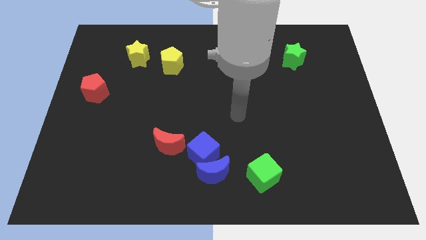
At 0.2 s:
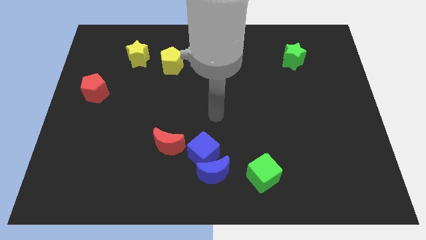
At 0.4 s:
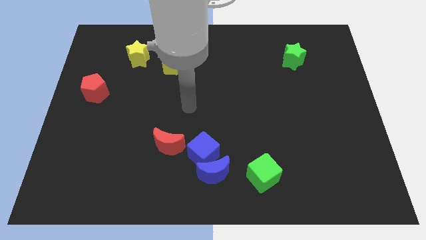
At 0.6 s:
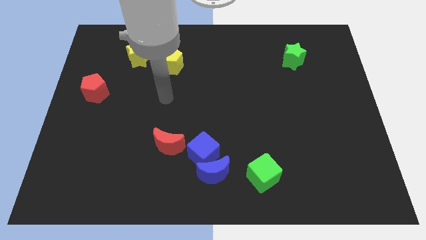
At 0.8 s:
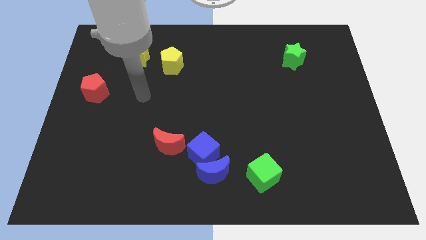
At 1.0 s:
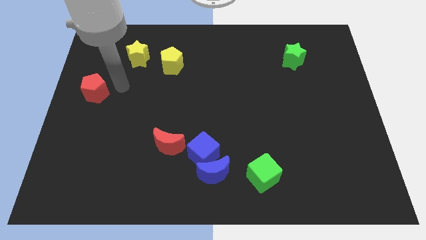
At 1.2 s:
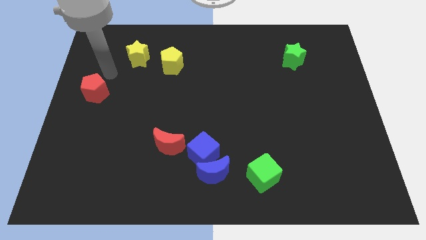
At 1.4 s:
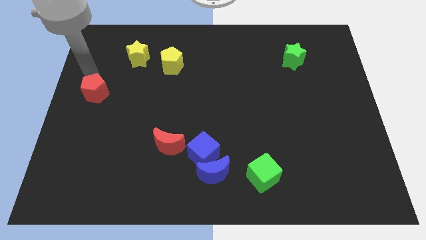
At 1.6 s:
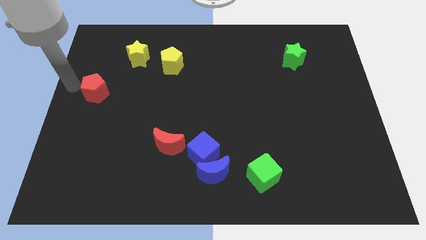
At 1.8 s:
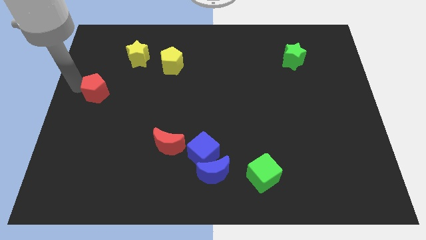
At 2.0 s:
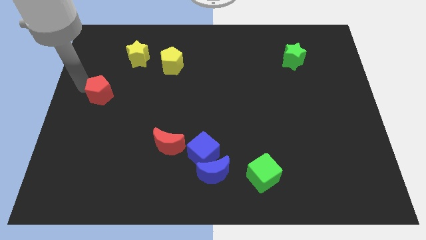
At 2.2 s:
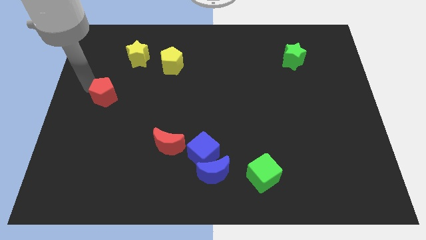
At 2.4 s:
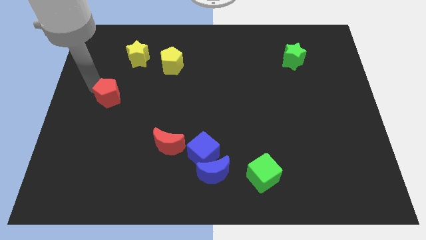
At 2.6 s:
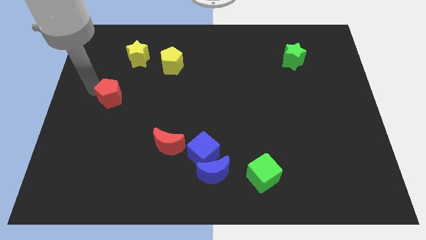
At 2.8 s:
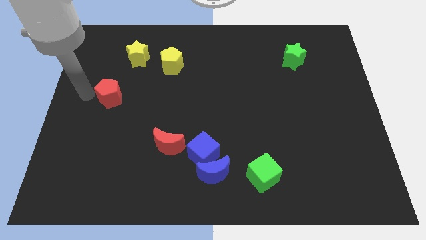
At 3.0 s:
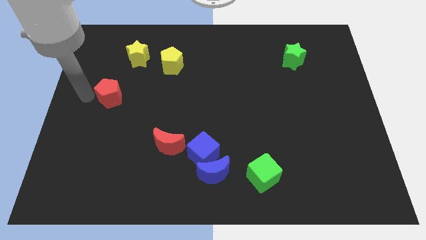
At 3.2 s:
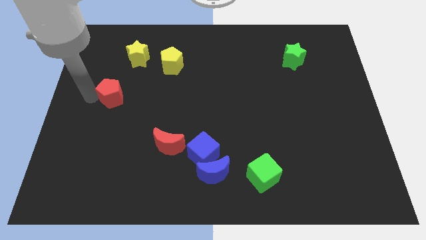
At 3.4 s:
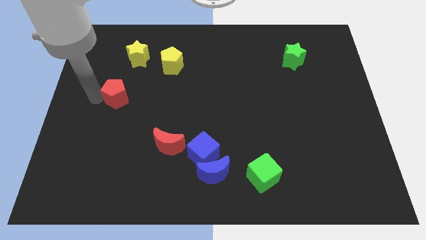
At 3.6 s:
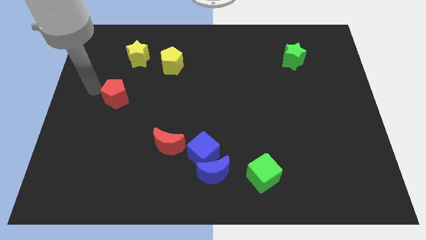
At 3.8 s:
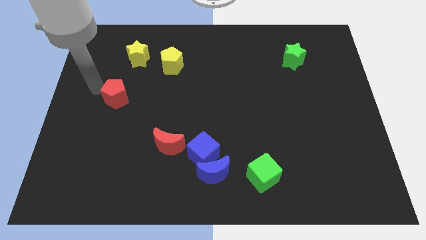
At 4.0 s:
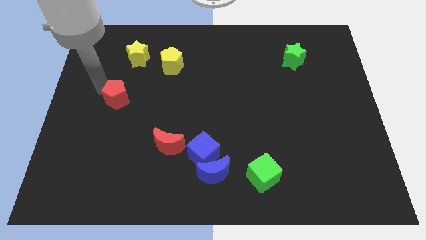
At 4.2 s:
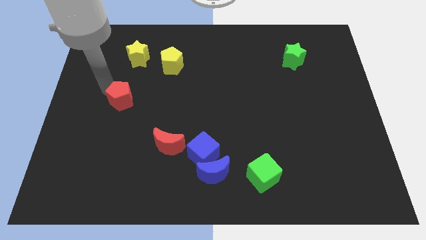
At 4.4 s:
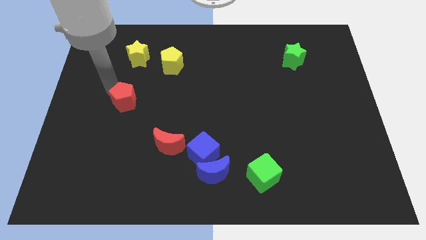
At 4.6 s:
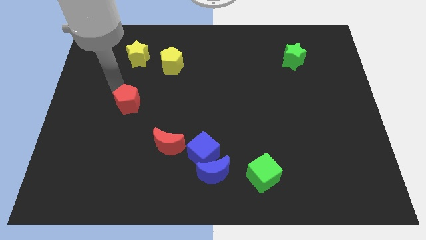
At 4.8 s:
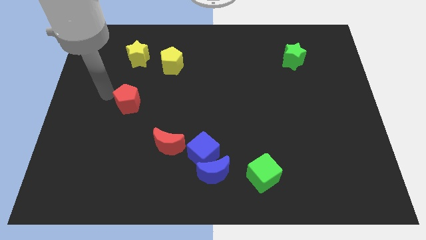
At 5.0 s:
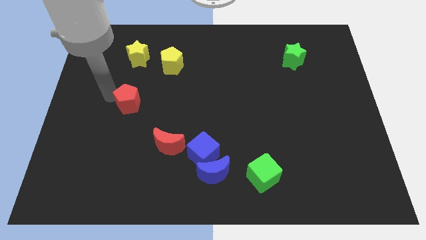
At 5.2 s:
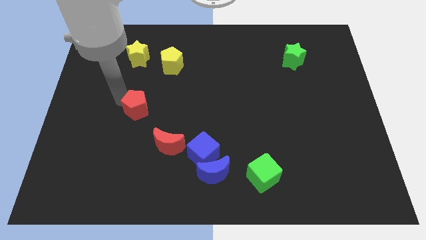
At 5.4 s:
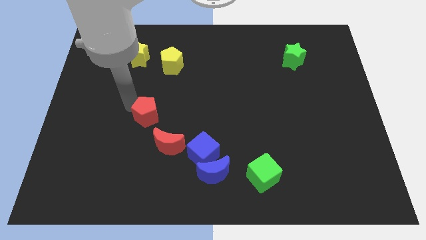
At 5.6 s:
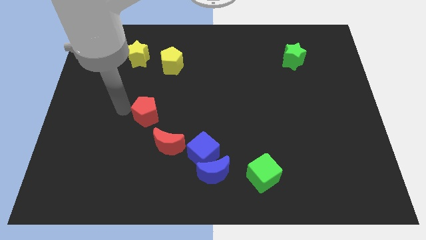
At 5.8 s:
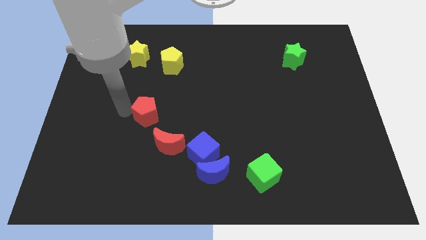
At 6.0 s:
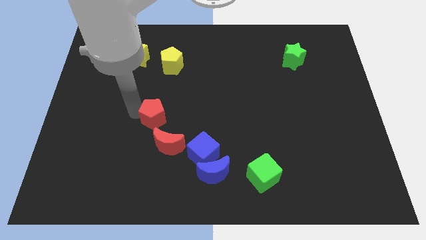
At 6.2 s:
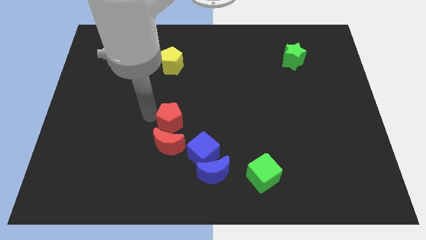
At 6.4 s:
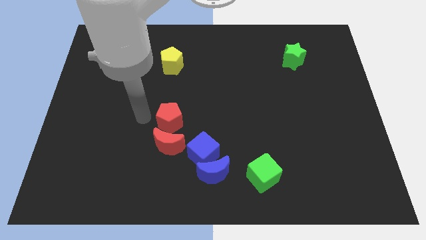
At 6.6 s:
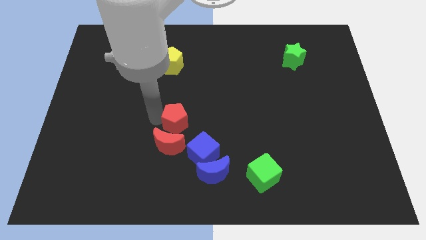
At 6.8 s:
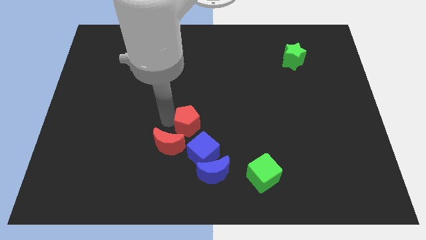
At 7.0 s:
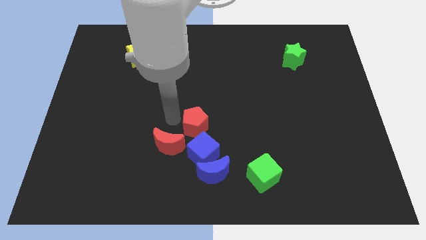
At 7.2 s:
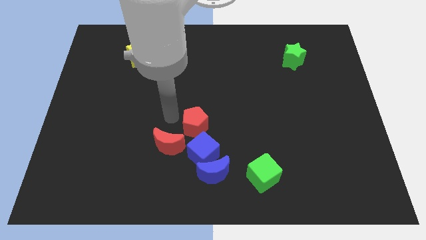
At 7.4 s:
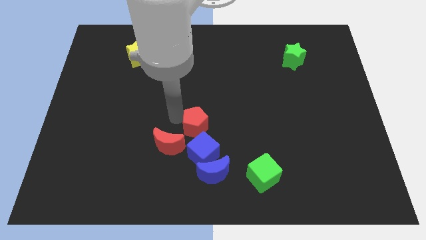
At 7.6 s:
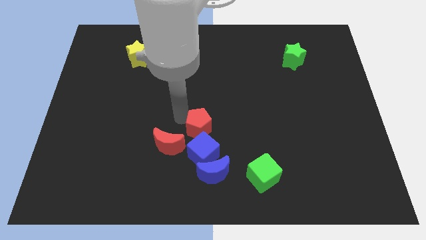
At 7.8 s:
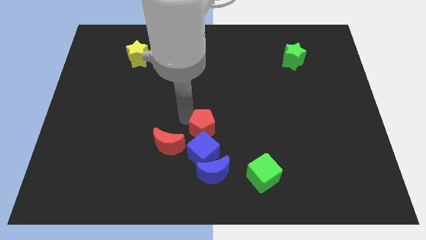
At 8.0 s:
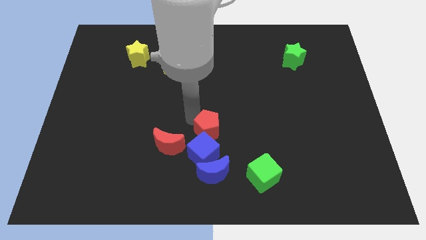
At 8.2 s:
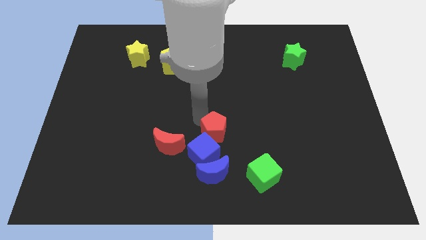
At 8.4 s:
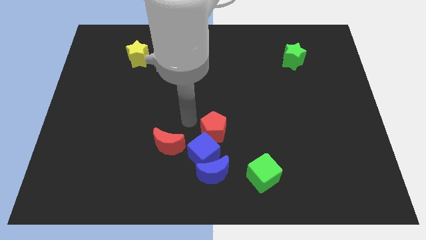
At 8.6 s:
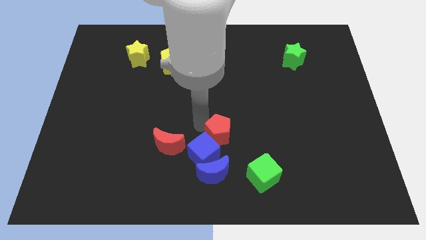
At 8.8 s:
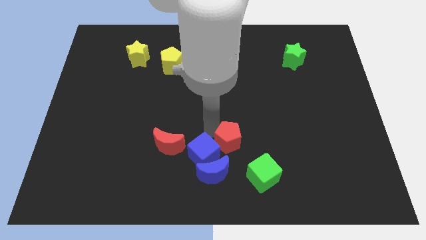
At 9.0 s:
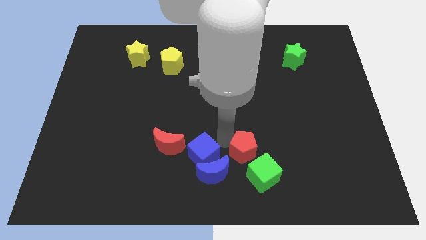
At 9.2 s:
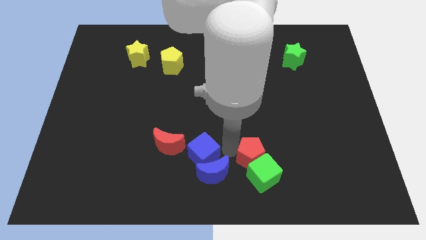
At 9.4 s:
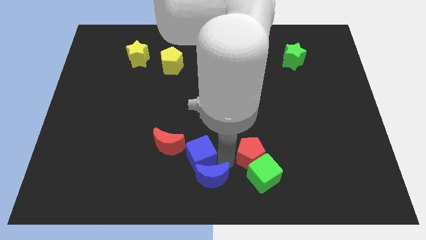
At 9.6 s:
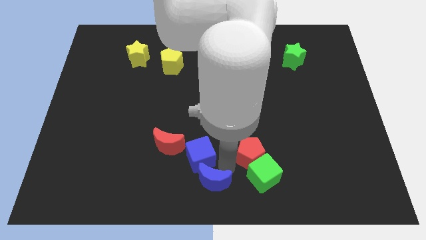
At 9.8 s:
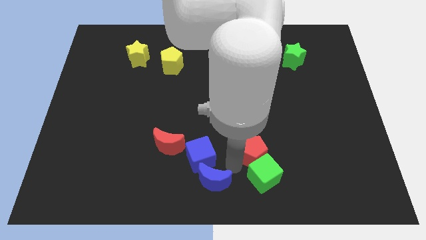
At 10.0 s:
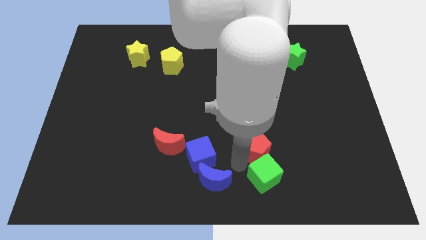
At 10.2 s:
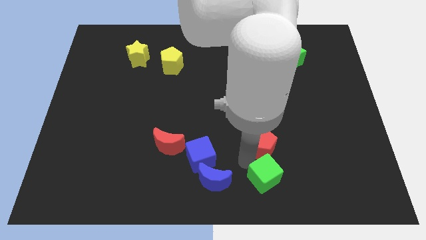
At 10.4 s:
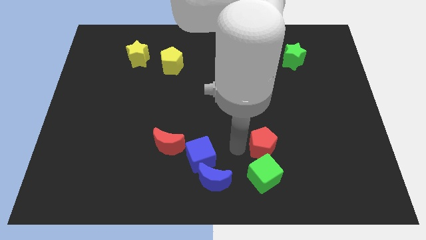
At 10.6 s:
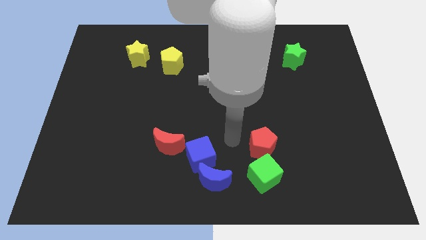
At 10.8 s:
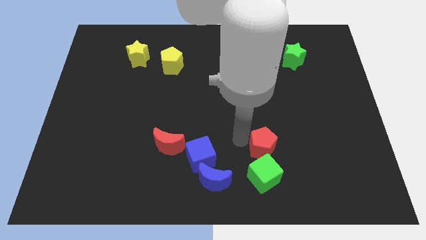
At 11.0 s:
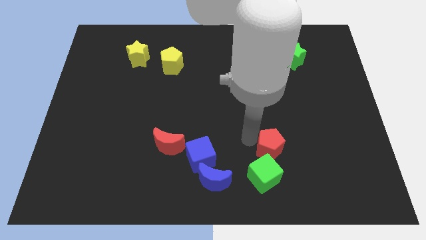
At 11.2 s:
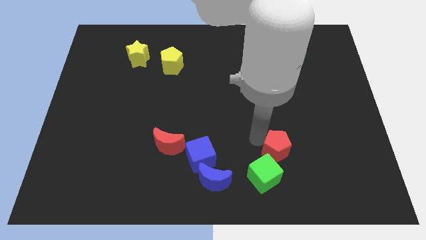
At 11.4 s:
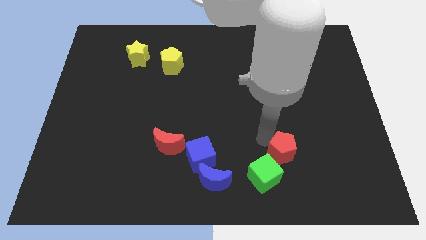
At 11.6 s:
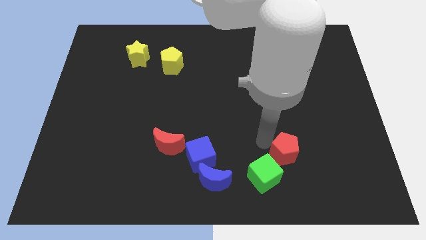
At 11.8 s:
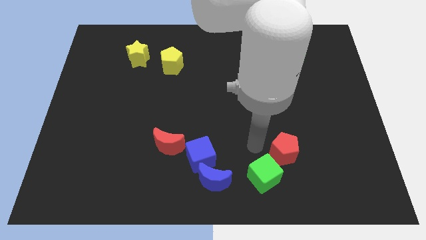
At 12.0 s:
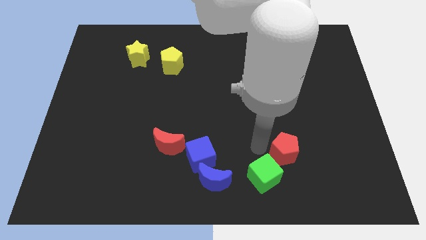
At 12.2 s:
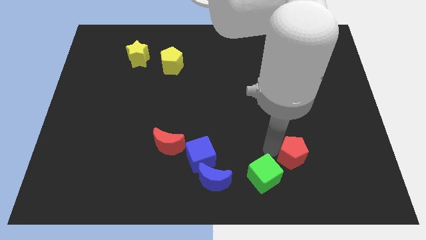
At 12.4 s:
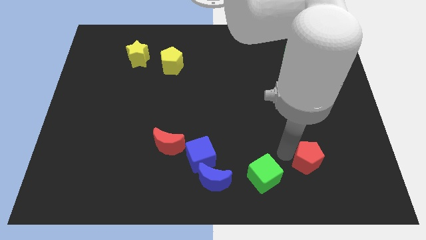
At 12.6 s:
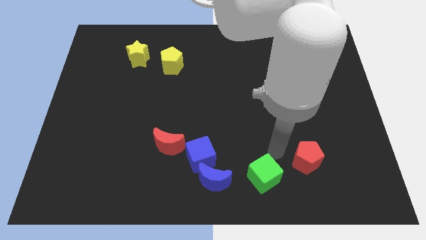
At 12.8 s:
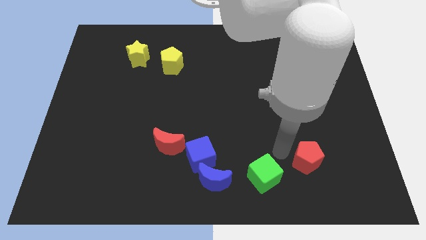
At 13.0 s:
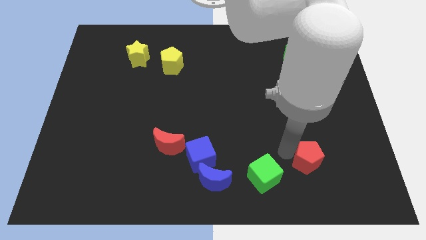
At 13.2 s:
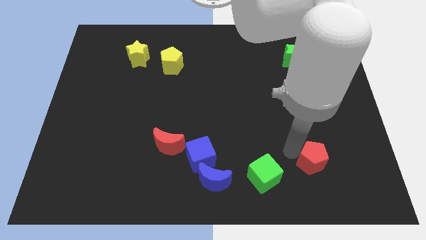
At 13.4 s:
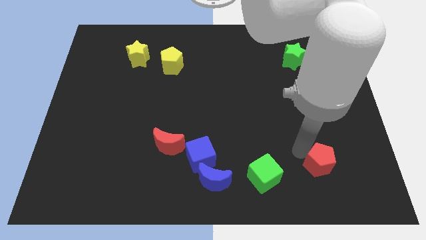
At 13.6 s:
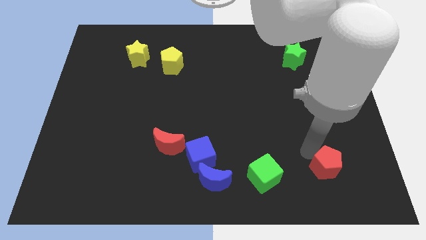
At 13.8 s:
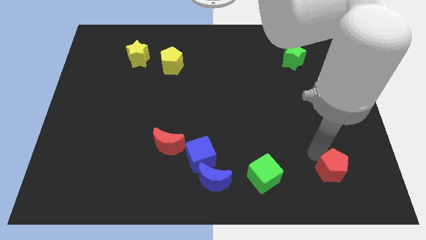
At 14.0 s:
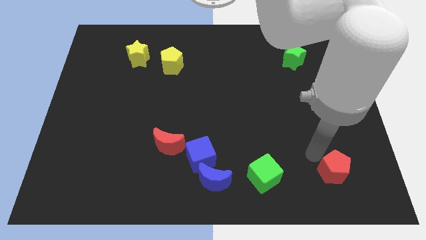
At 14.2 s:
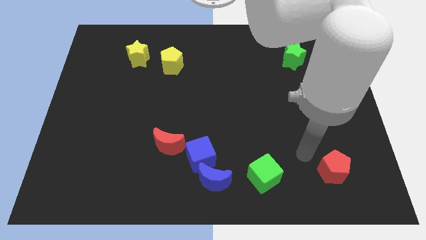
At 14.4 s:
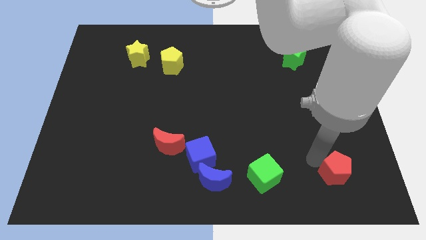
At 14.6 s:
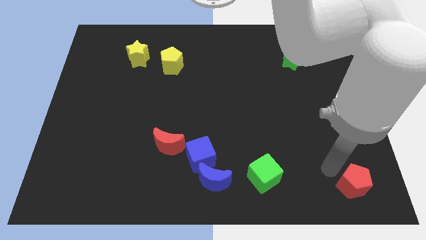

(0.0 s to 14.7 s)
push the red pentagon to the bottom right

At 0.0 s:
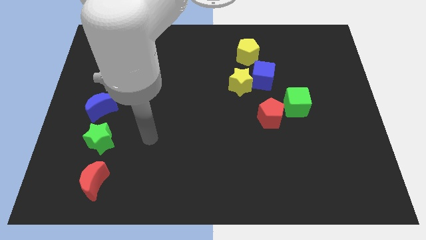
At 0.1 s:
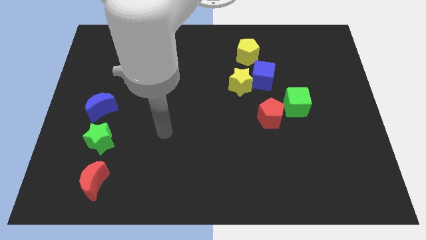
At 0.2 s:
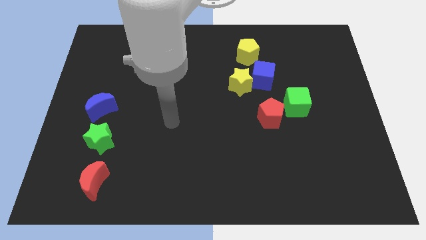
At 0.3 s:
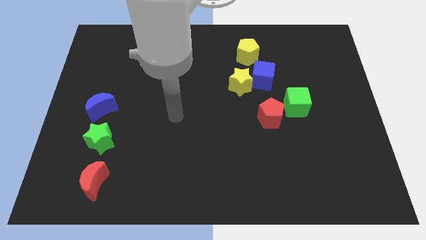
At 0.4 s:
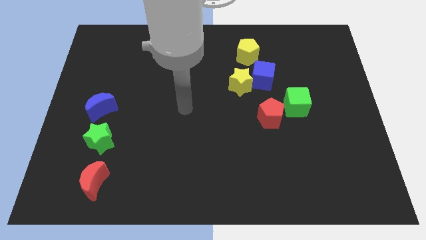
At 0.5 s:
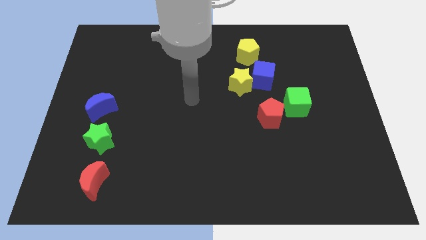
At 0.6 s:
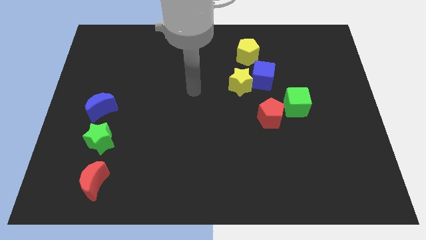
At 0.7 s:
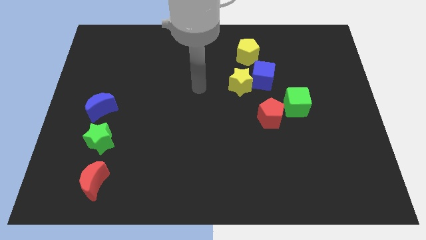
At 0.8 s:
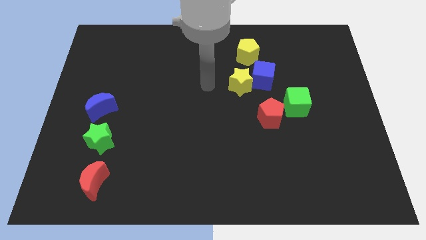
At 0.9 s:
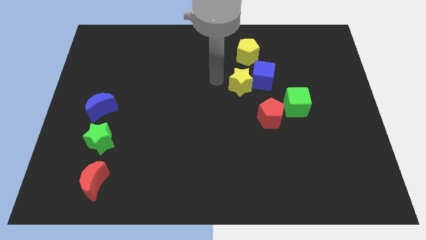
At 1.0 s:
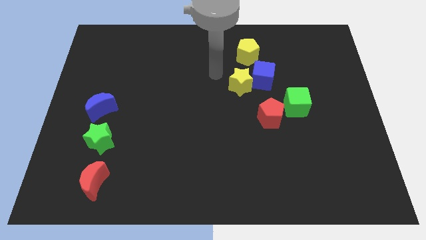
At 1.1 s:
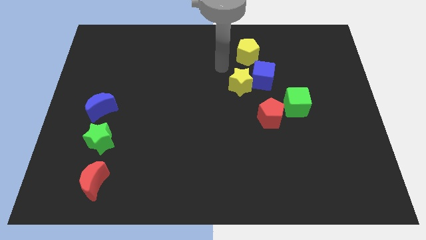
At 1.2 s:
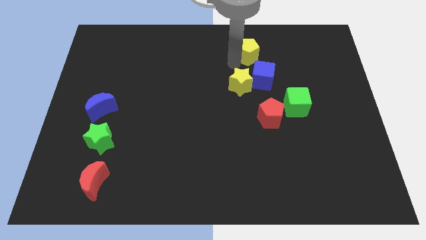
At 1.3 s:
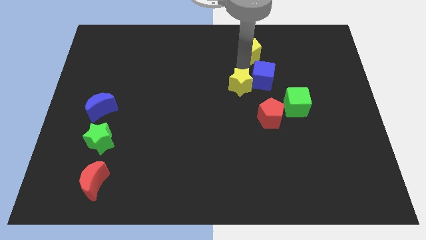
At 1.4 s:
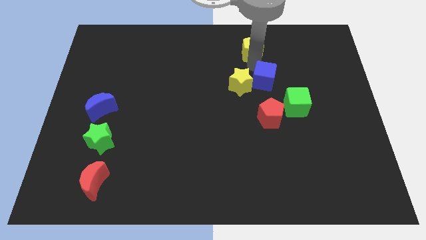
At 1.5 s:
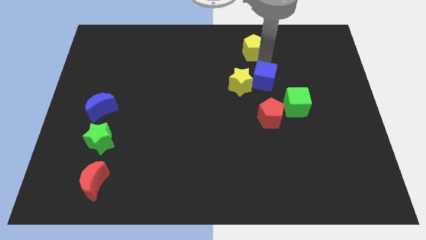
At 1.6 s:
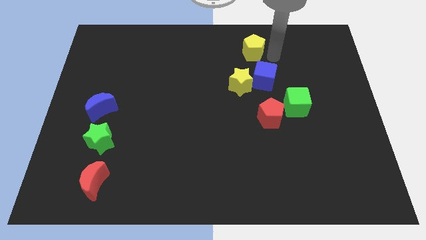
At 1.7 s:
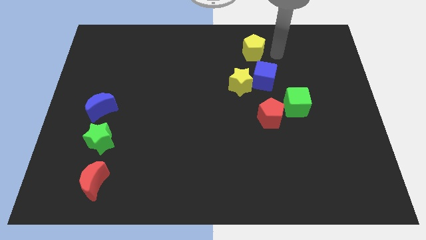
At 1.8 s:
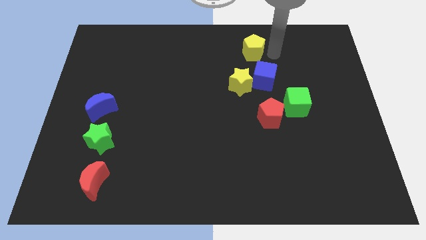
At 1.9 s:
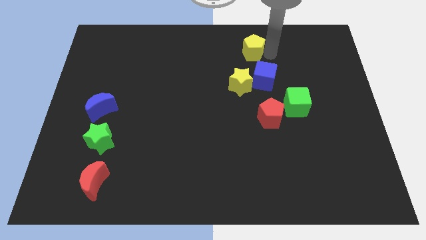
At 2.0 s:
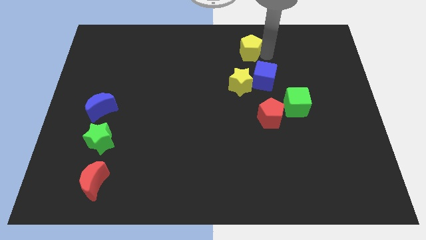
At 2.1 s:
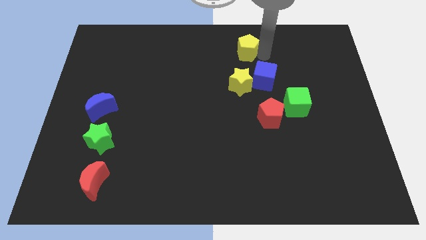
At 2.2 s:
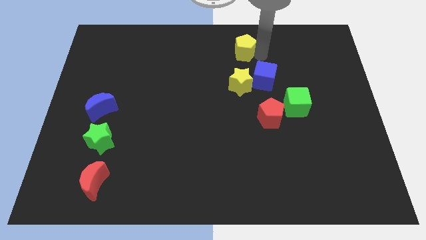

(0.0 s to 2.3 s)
slide the yellow pentagon to the towards your base
